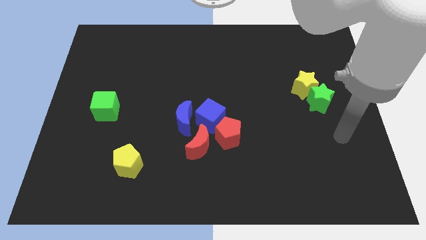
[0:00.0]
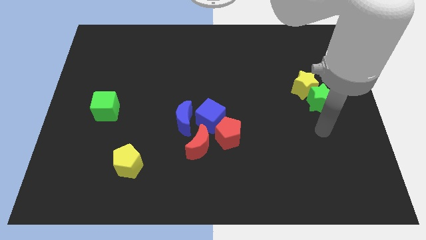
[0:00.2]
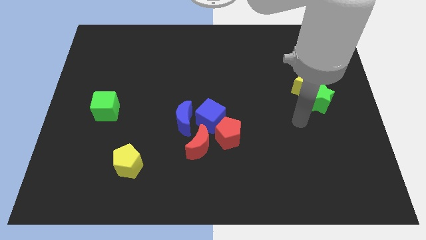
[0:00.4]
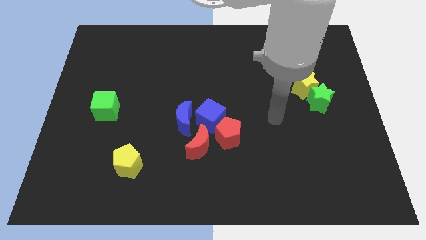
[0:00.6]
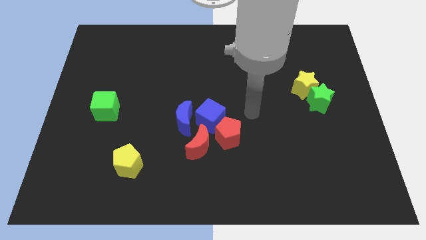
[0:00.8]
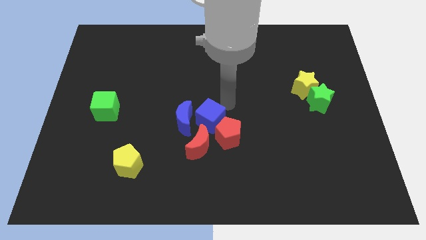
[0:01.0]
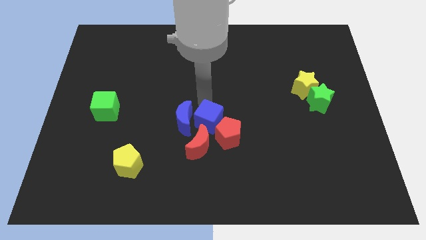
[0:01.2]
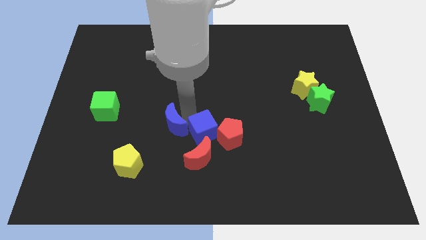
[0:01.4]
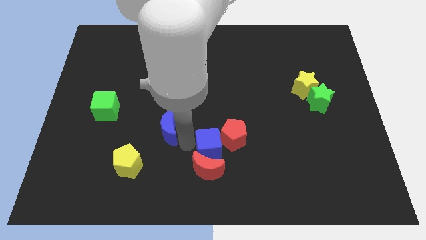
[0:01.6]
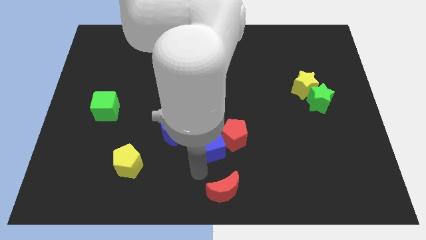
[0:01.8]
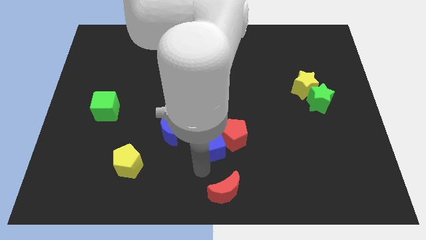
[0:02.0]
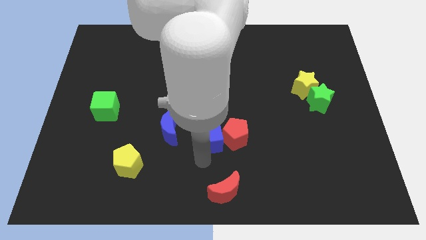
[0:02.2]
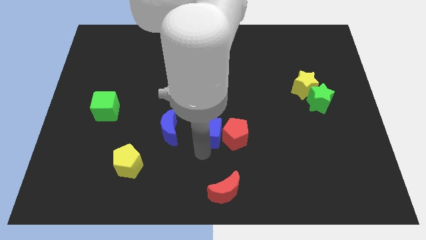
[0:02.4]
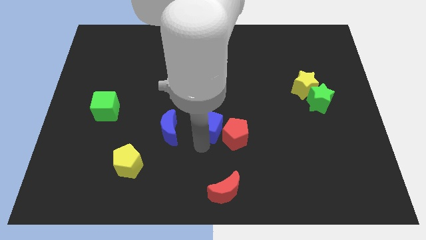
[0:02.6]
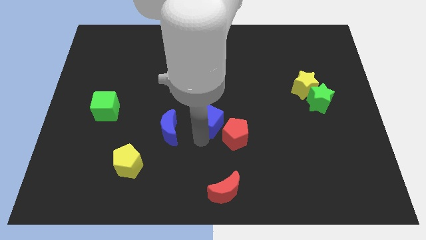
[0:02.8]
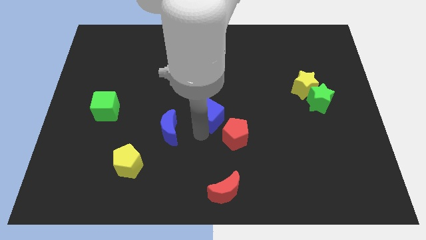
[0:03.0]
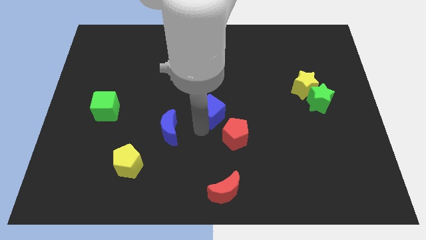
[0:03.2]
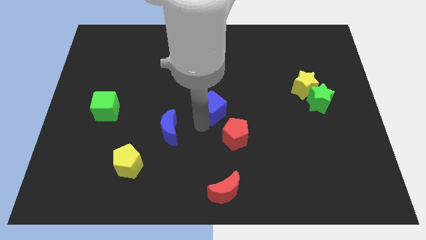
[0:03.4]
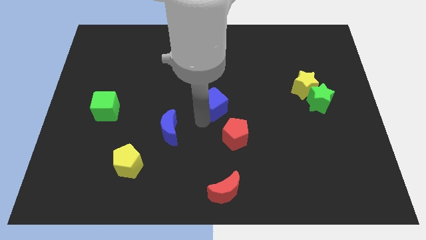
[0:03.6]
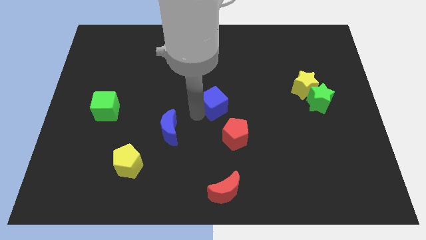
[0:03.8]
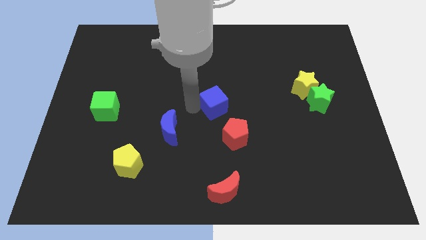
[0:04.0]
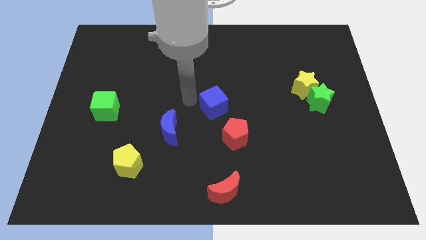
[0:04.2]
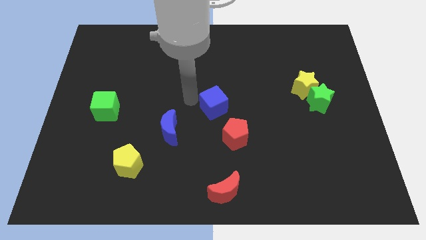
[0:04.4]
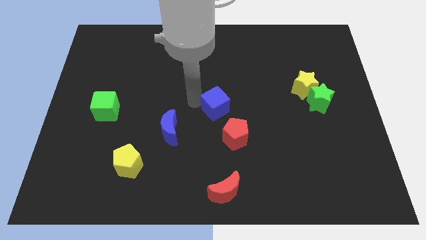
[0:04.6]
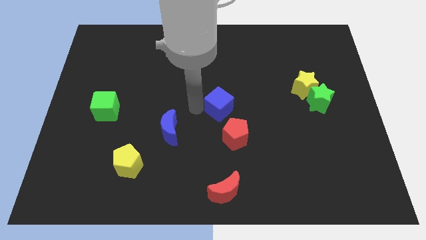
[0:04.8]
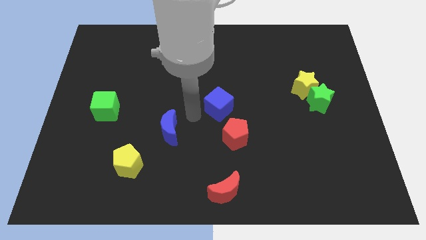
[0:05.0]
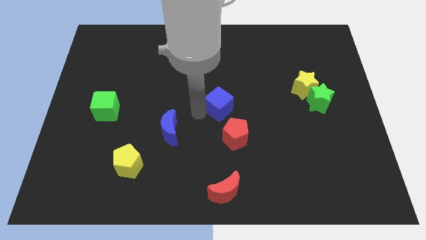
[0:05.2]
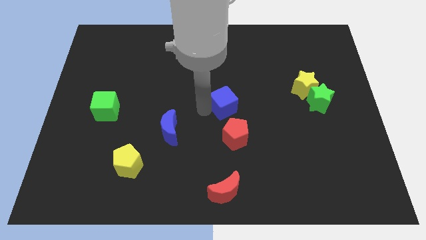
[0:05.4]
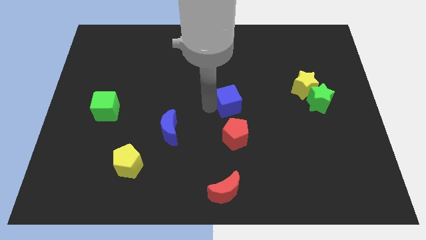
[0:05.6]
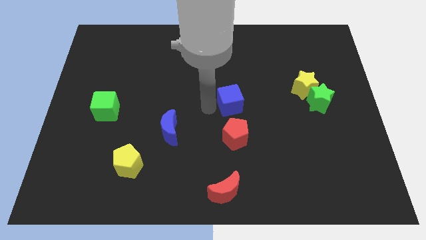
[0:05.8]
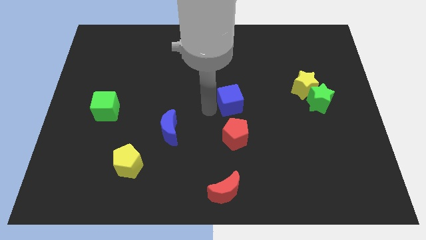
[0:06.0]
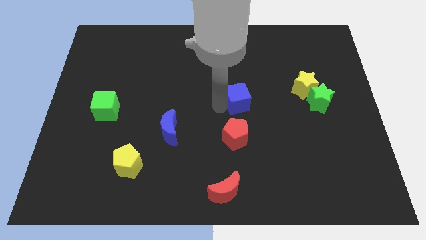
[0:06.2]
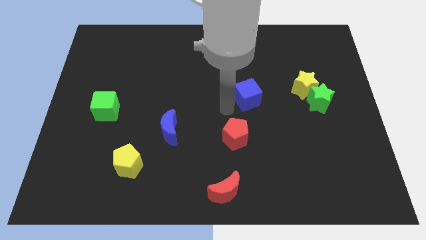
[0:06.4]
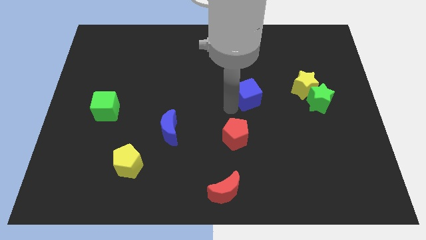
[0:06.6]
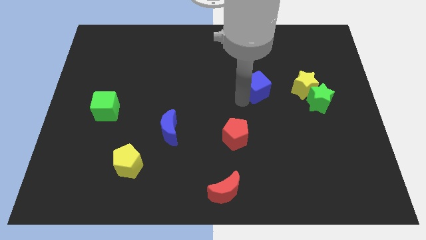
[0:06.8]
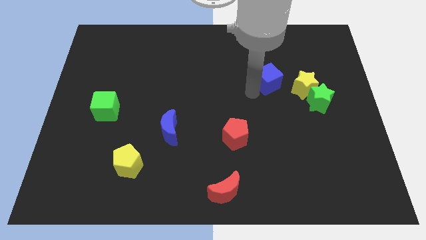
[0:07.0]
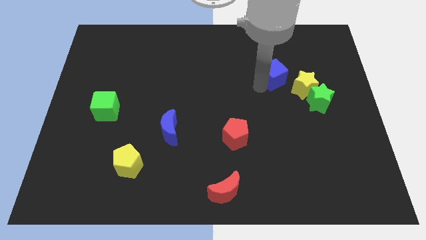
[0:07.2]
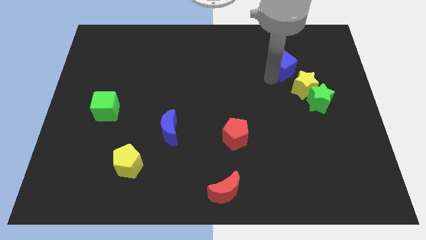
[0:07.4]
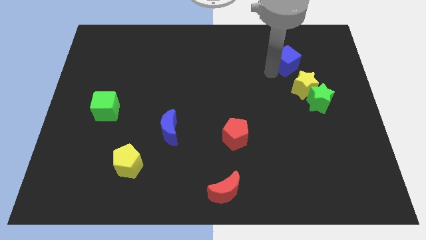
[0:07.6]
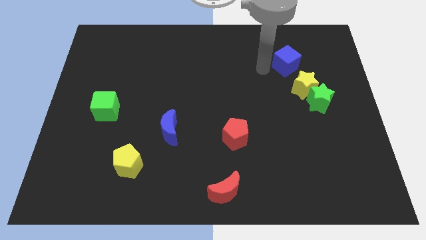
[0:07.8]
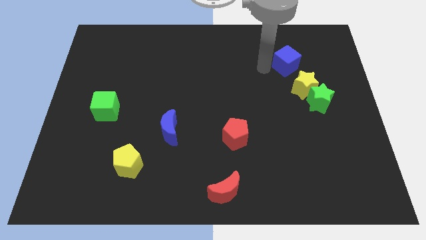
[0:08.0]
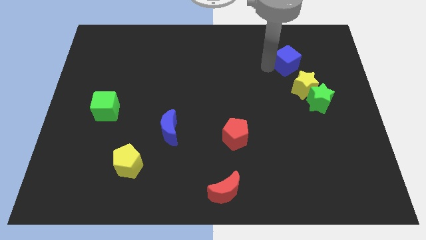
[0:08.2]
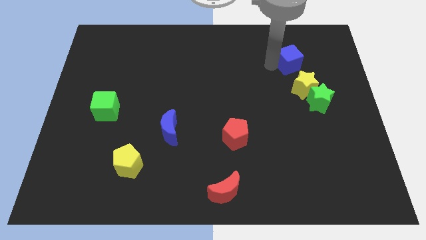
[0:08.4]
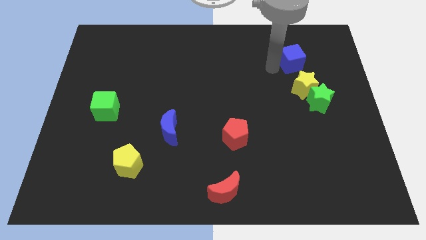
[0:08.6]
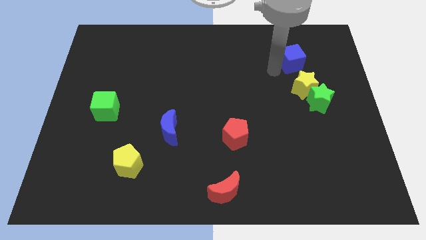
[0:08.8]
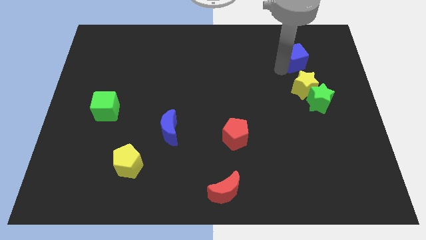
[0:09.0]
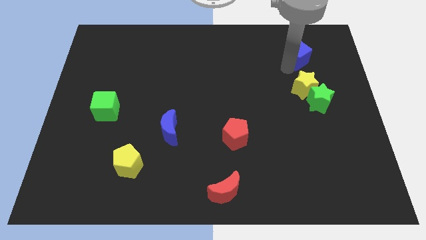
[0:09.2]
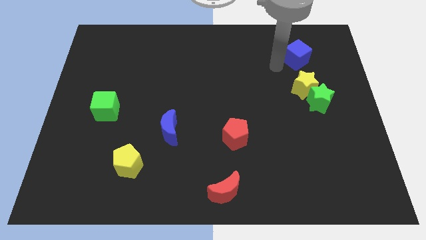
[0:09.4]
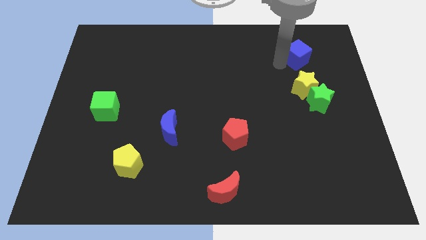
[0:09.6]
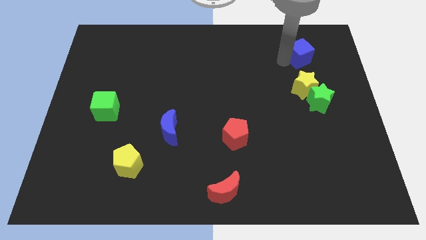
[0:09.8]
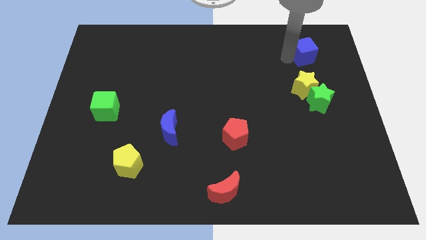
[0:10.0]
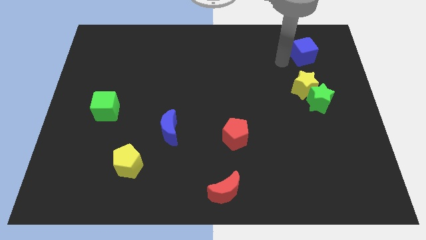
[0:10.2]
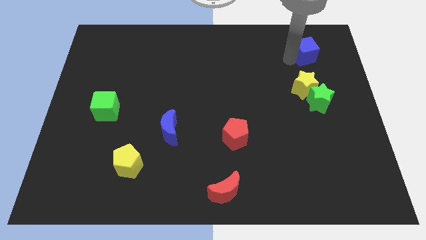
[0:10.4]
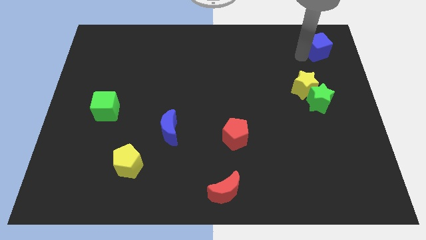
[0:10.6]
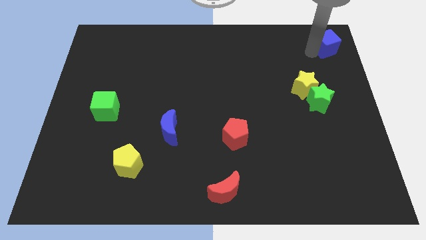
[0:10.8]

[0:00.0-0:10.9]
slide the blue cube to the top right of the board

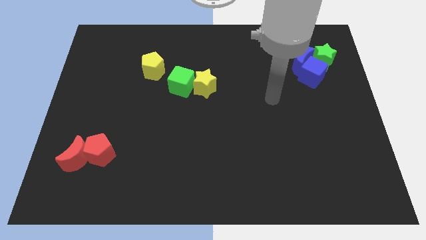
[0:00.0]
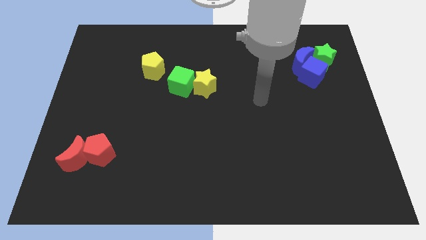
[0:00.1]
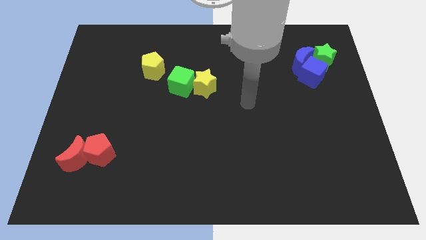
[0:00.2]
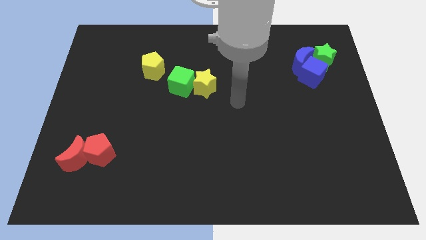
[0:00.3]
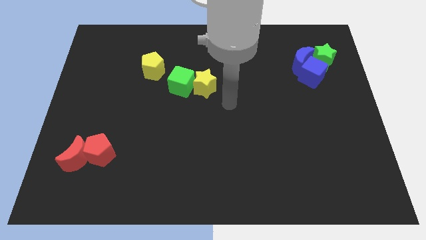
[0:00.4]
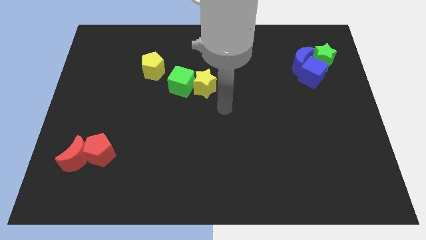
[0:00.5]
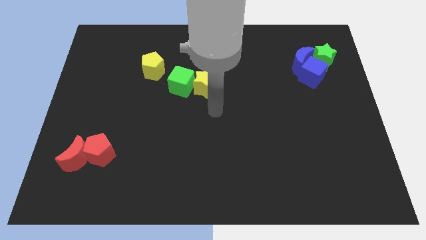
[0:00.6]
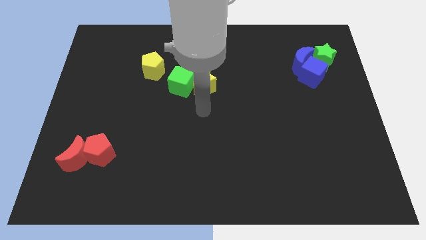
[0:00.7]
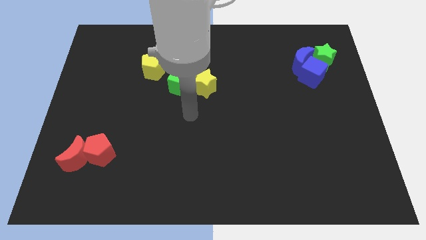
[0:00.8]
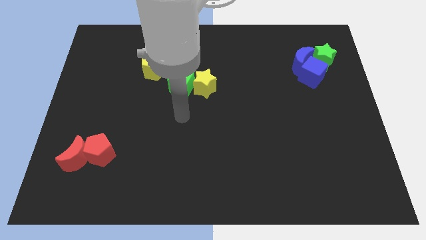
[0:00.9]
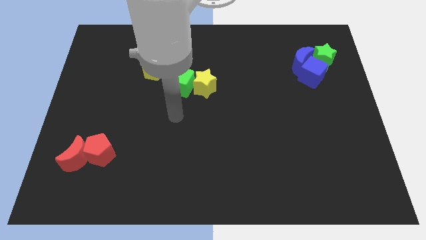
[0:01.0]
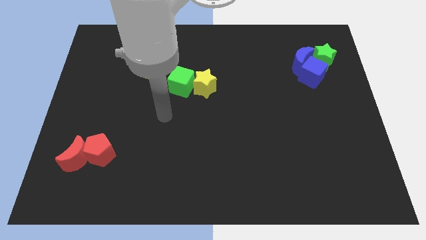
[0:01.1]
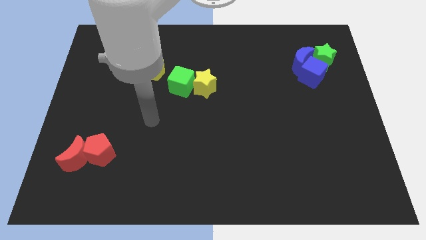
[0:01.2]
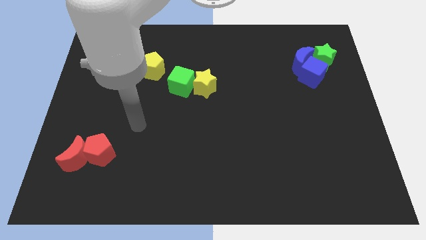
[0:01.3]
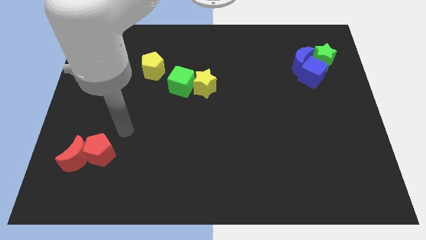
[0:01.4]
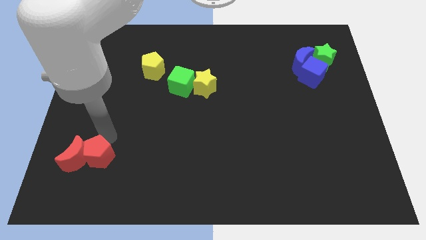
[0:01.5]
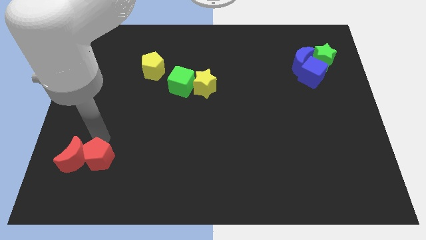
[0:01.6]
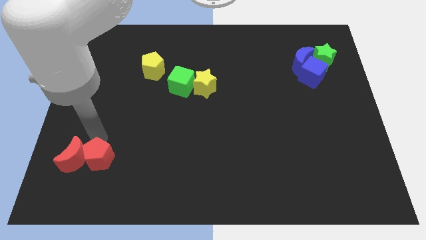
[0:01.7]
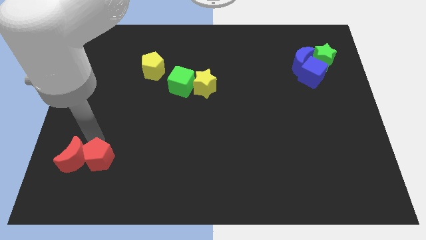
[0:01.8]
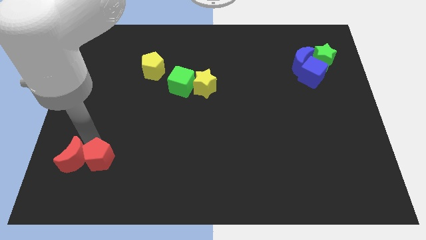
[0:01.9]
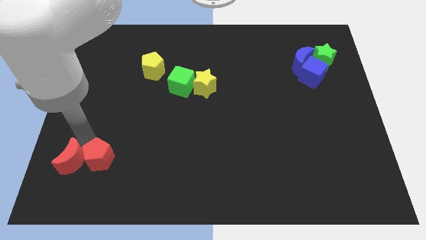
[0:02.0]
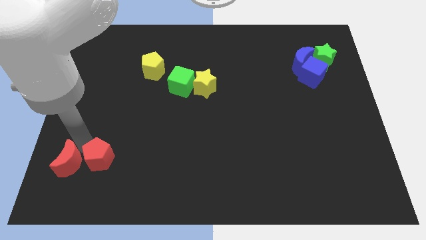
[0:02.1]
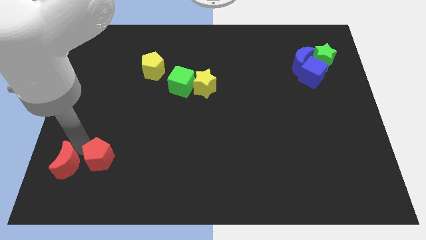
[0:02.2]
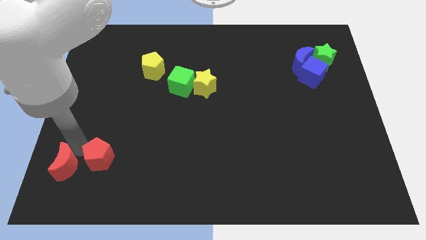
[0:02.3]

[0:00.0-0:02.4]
push the red moon to the bottom left
